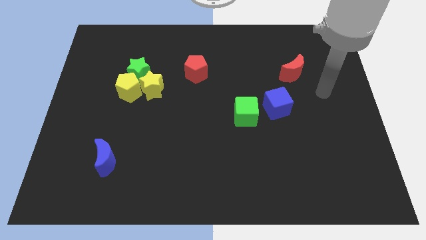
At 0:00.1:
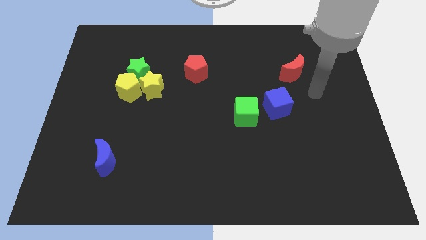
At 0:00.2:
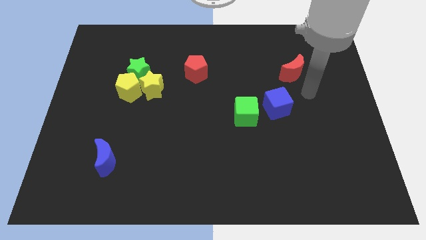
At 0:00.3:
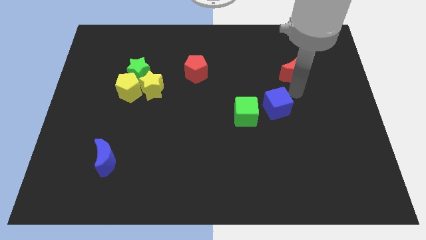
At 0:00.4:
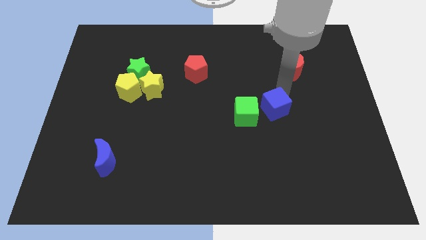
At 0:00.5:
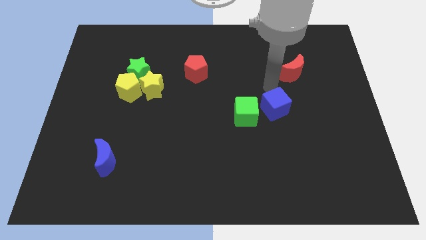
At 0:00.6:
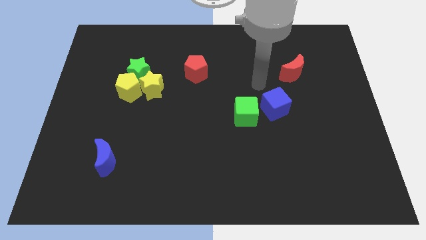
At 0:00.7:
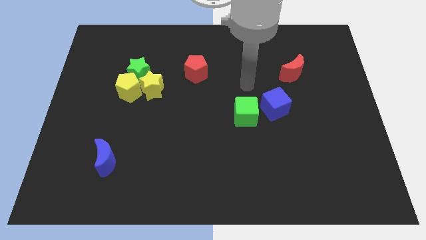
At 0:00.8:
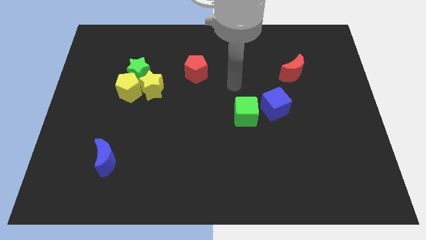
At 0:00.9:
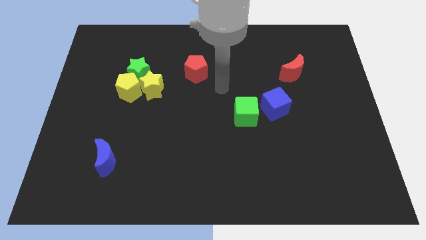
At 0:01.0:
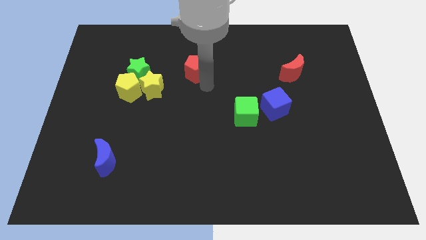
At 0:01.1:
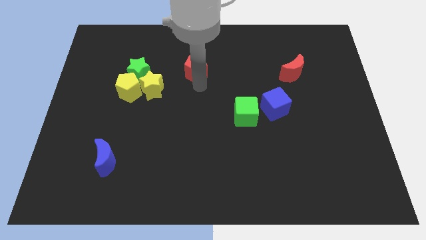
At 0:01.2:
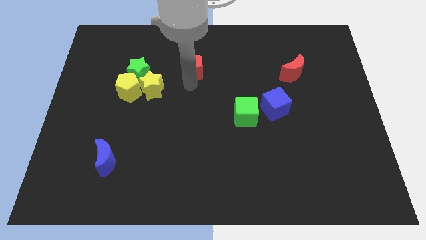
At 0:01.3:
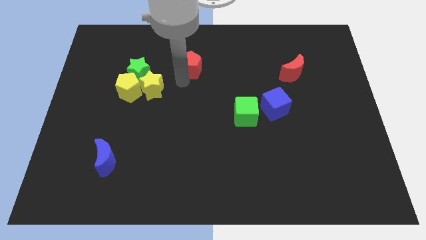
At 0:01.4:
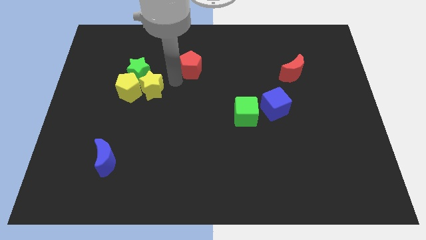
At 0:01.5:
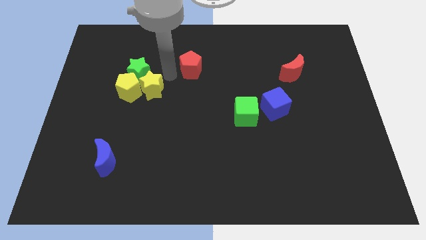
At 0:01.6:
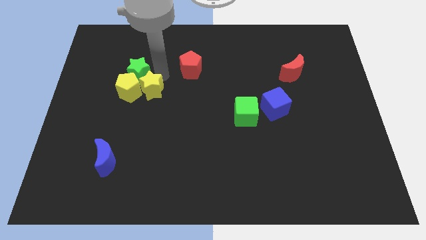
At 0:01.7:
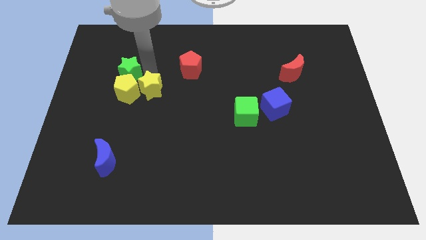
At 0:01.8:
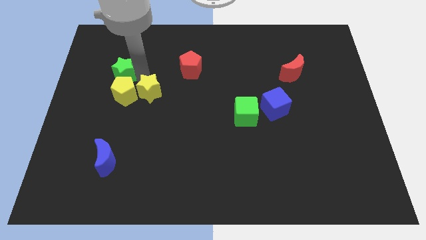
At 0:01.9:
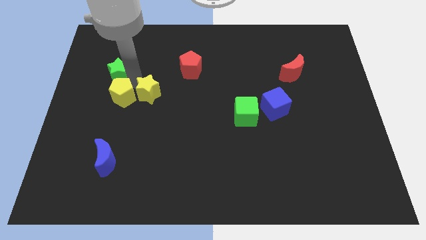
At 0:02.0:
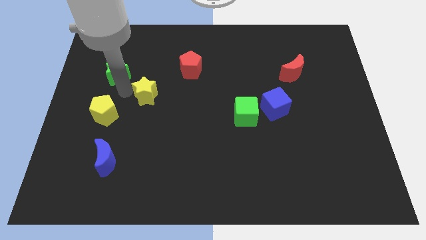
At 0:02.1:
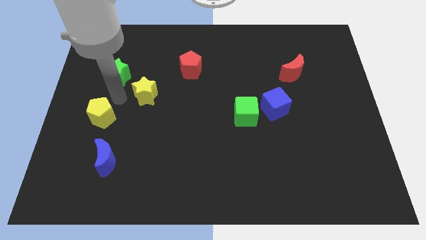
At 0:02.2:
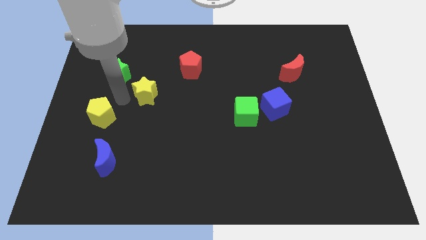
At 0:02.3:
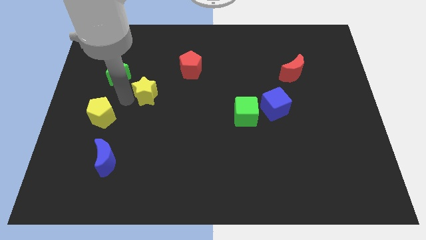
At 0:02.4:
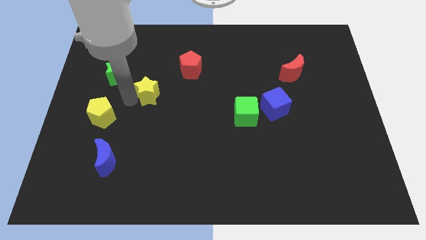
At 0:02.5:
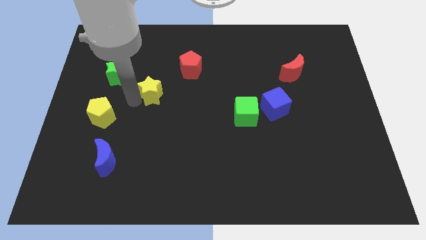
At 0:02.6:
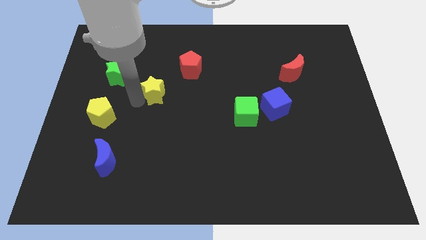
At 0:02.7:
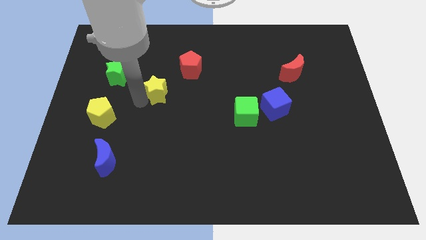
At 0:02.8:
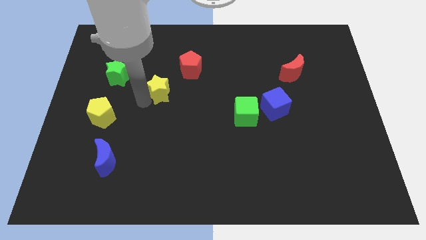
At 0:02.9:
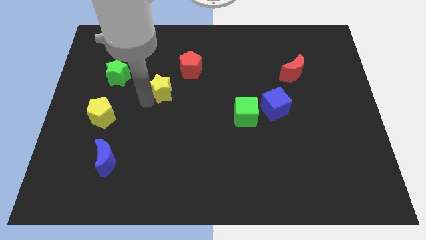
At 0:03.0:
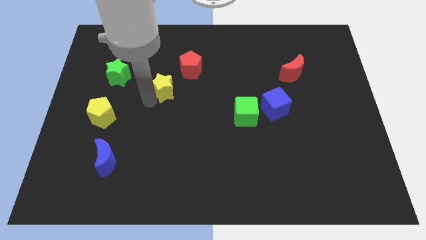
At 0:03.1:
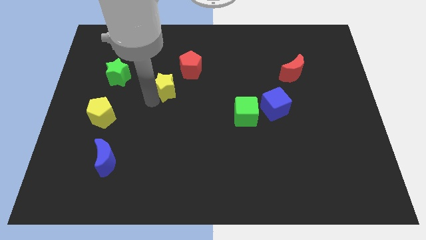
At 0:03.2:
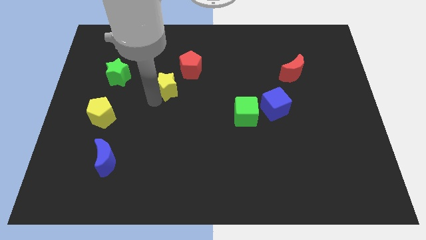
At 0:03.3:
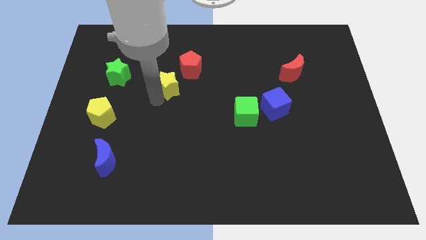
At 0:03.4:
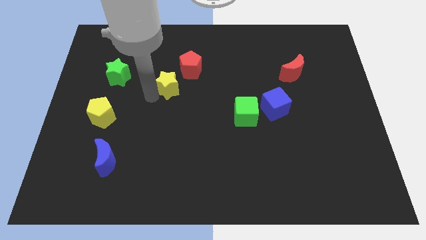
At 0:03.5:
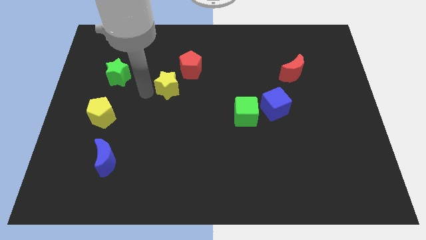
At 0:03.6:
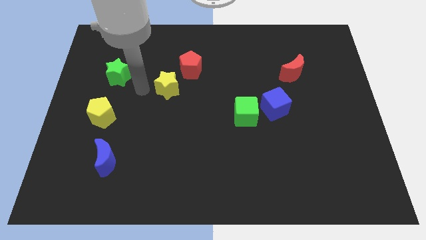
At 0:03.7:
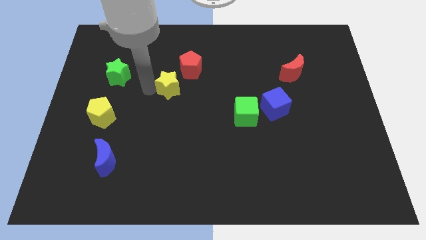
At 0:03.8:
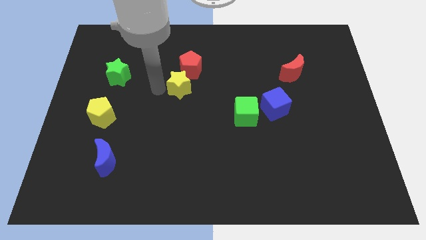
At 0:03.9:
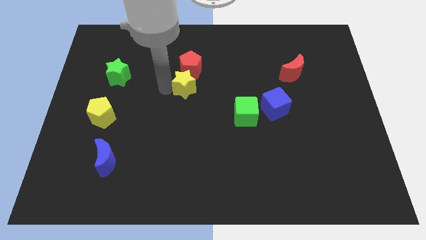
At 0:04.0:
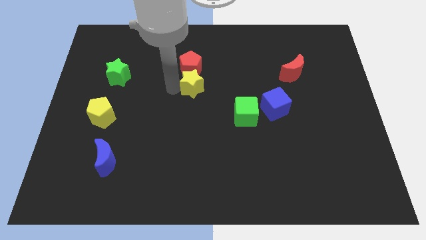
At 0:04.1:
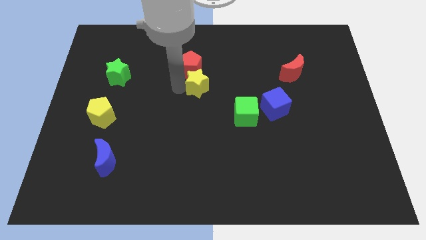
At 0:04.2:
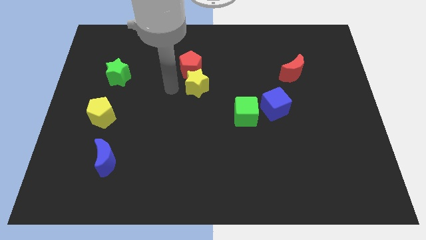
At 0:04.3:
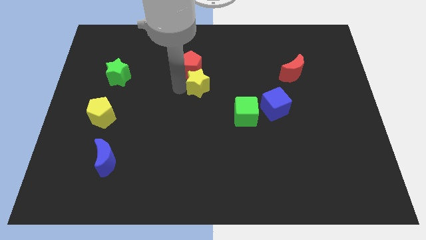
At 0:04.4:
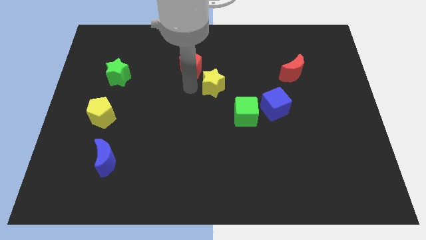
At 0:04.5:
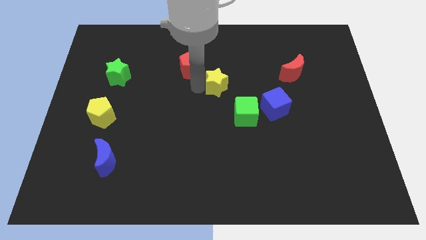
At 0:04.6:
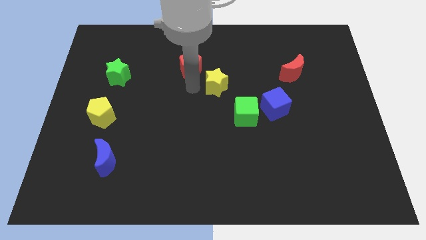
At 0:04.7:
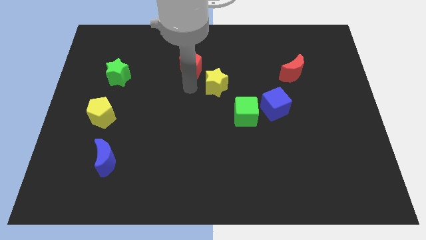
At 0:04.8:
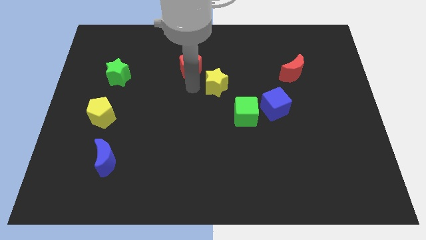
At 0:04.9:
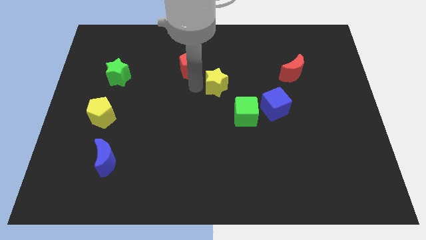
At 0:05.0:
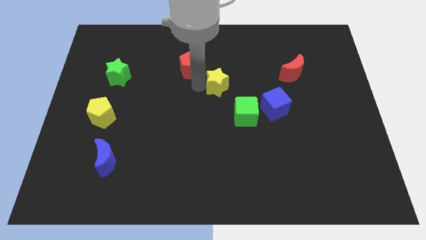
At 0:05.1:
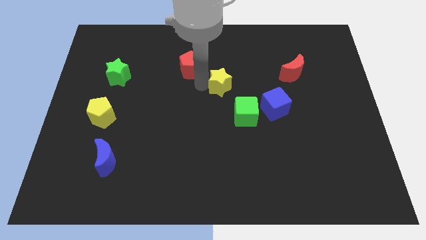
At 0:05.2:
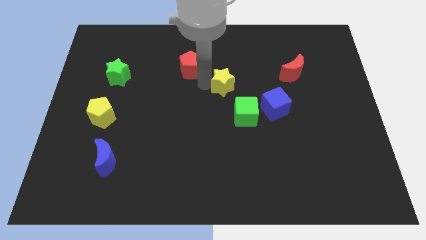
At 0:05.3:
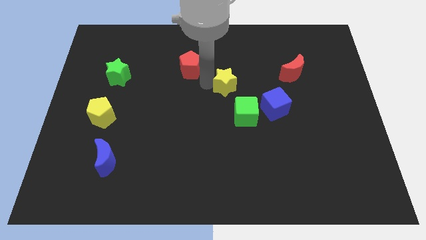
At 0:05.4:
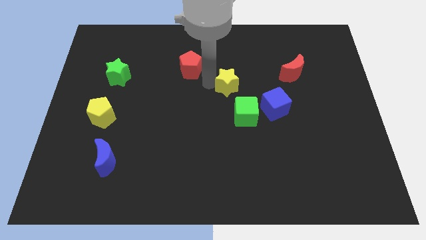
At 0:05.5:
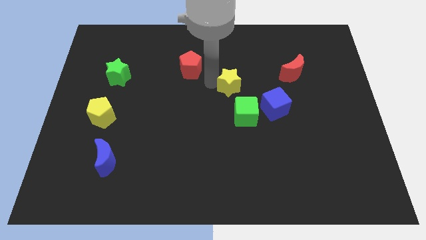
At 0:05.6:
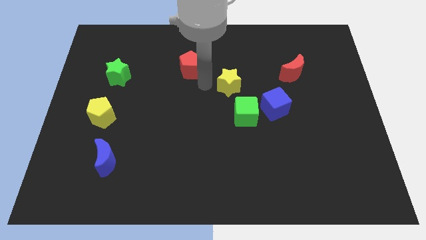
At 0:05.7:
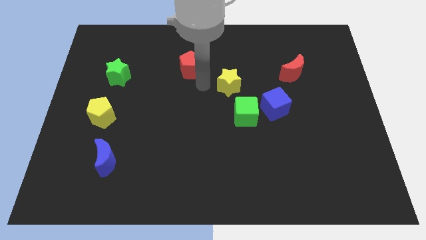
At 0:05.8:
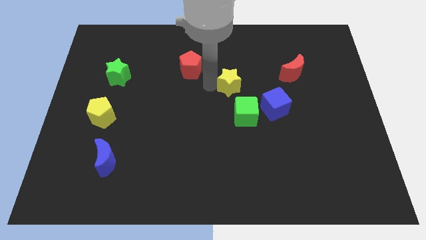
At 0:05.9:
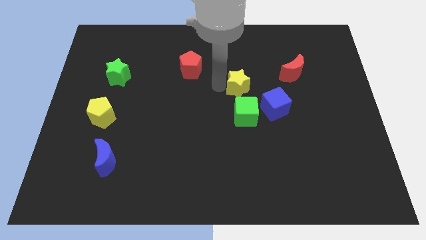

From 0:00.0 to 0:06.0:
push the yellow star right

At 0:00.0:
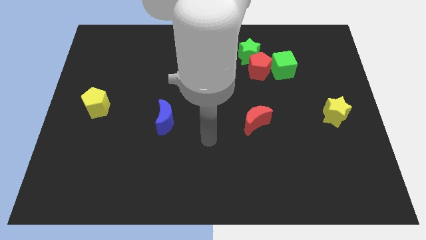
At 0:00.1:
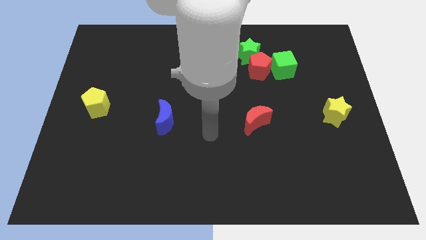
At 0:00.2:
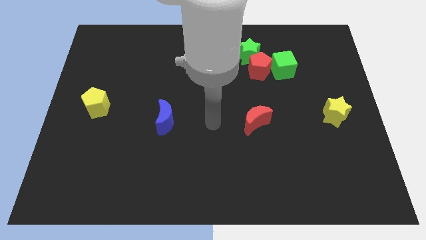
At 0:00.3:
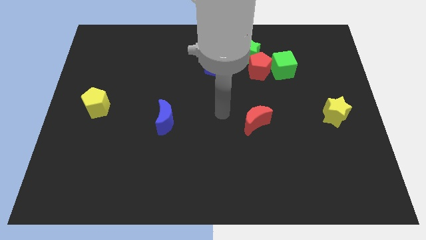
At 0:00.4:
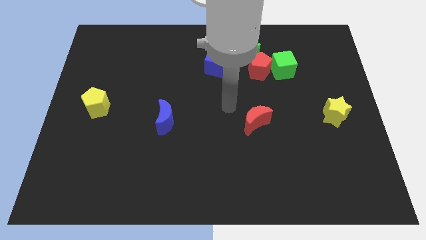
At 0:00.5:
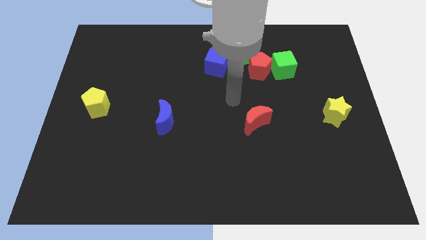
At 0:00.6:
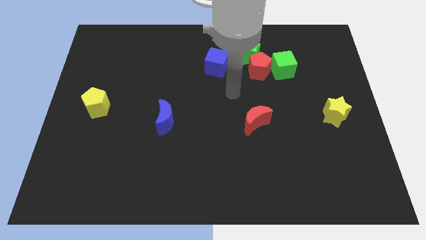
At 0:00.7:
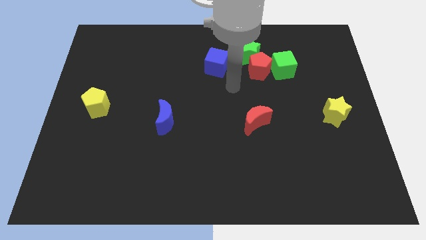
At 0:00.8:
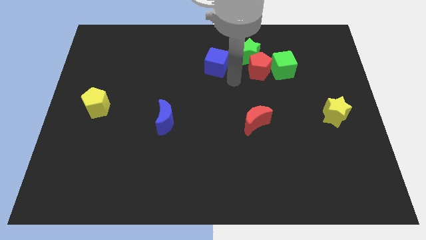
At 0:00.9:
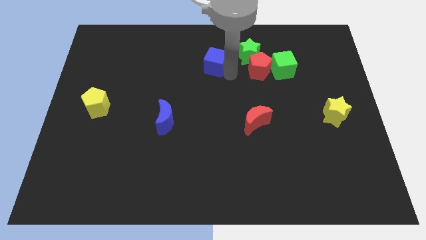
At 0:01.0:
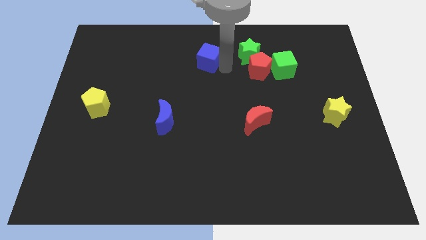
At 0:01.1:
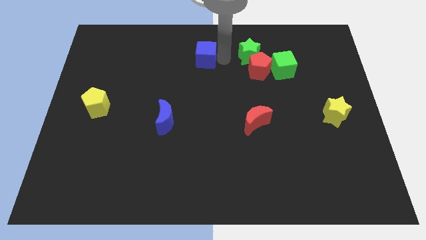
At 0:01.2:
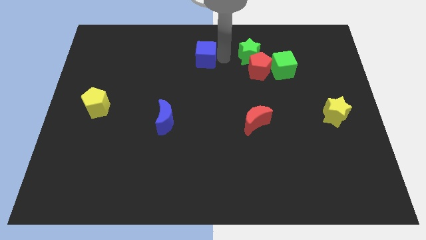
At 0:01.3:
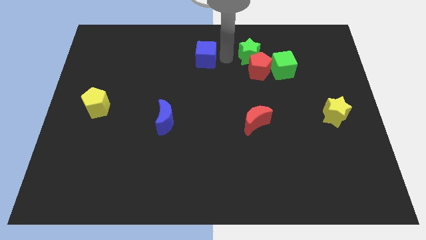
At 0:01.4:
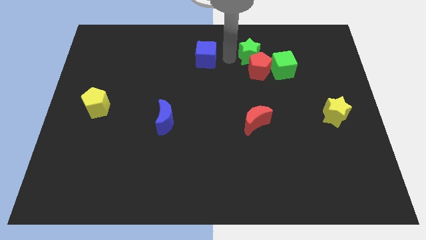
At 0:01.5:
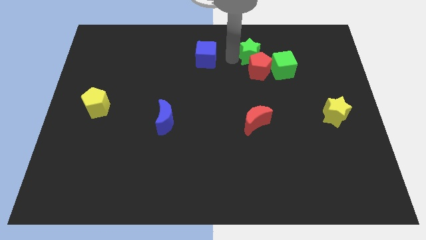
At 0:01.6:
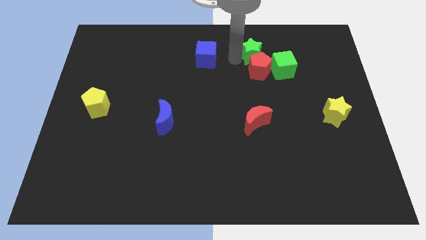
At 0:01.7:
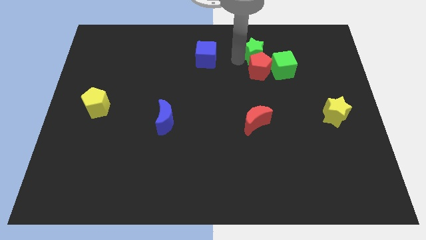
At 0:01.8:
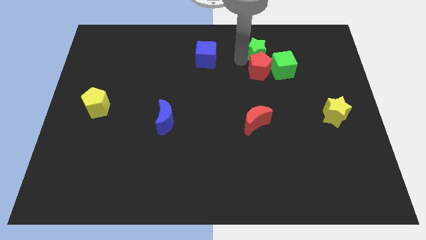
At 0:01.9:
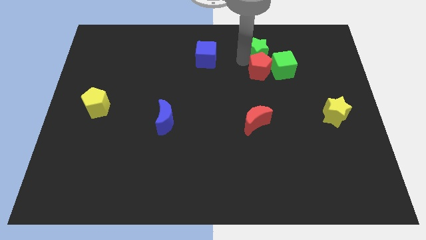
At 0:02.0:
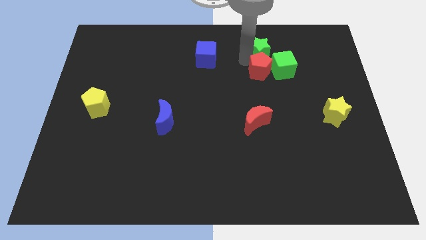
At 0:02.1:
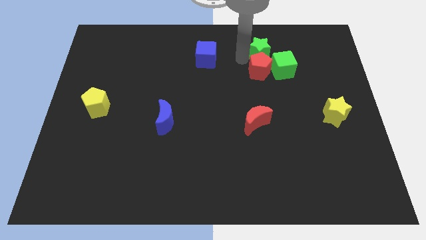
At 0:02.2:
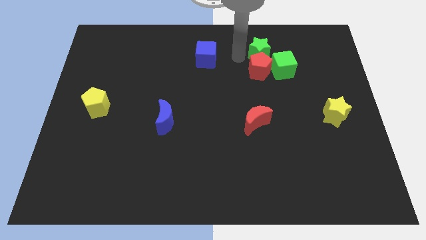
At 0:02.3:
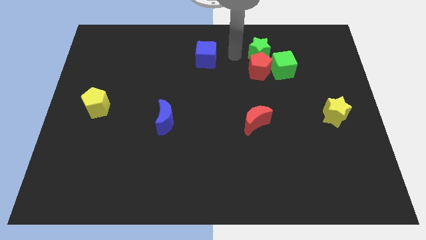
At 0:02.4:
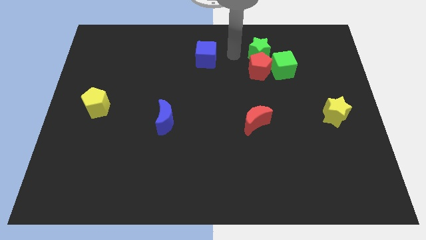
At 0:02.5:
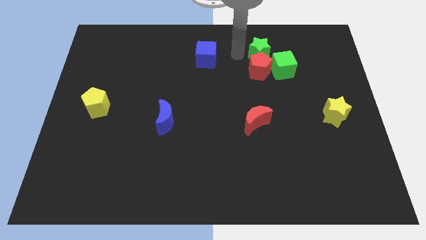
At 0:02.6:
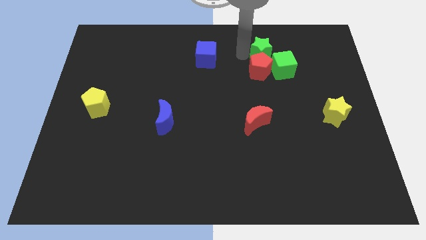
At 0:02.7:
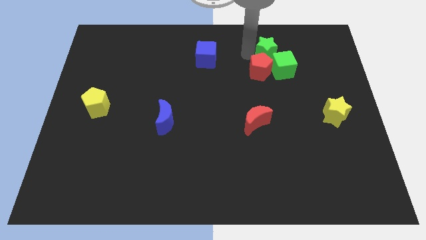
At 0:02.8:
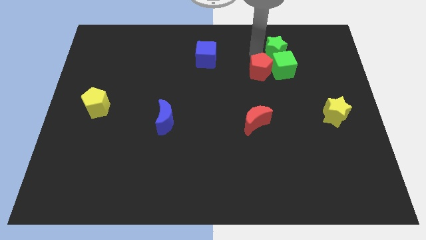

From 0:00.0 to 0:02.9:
slightly slide the green star to the right
